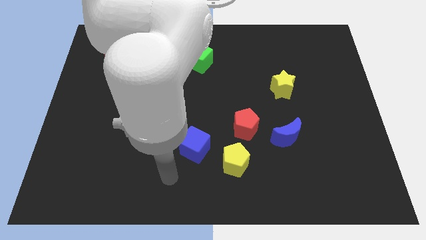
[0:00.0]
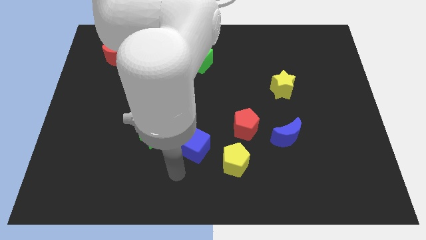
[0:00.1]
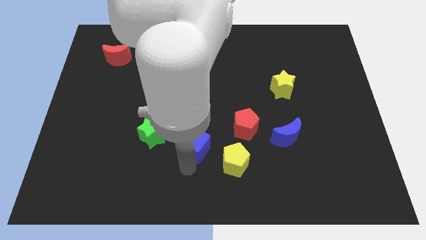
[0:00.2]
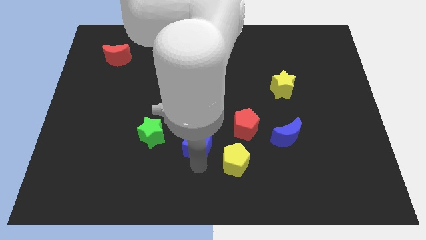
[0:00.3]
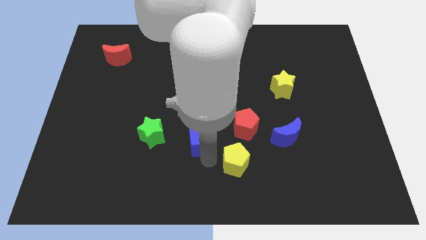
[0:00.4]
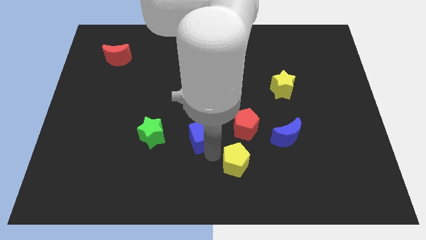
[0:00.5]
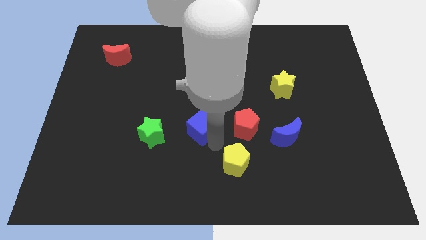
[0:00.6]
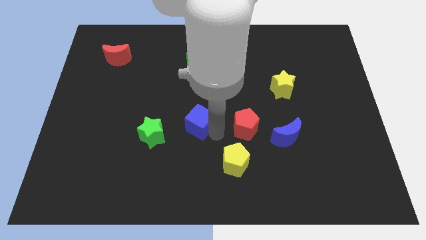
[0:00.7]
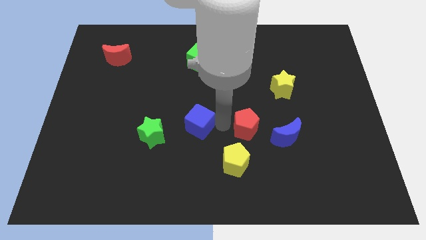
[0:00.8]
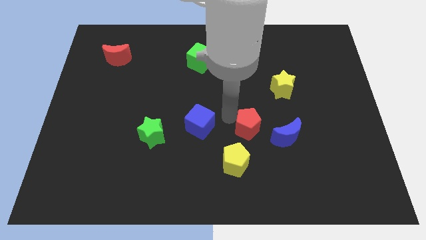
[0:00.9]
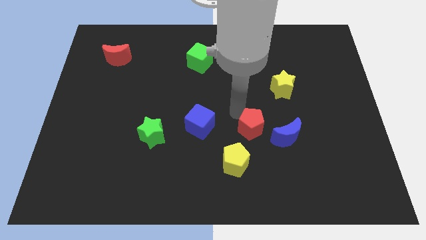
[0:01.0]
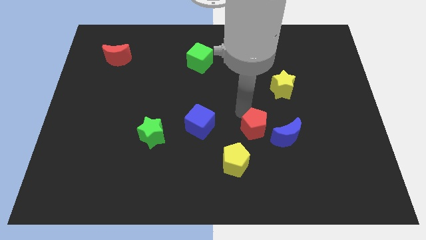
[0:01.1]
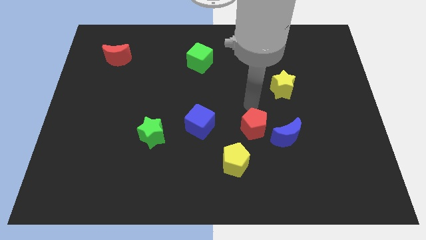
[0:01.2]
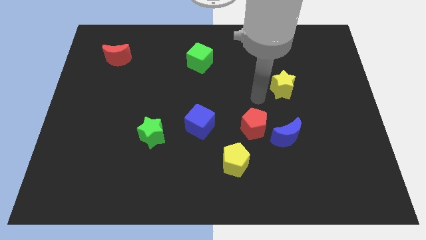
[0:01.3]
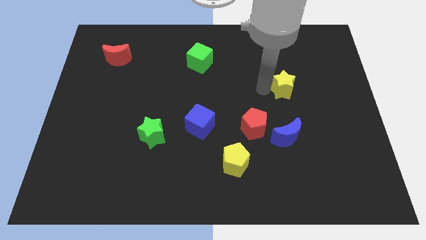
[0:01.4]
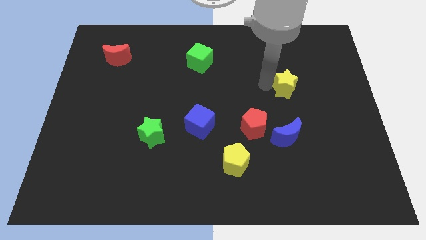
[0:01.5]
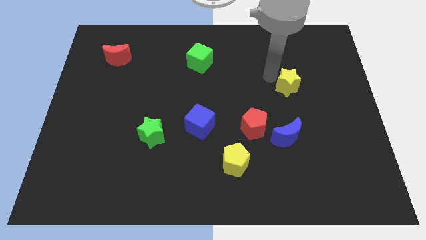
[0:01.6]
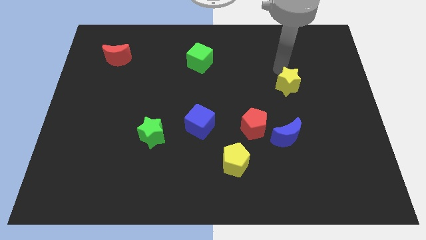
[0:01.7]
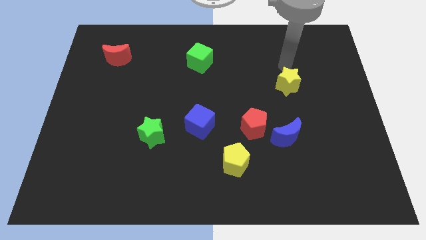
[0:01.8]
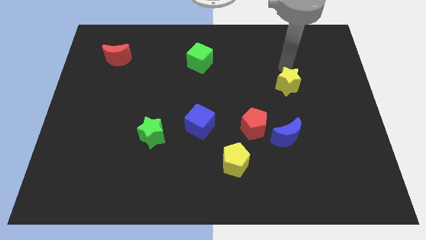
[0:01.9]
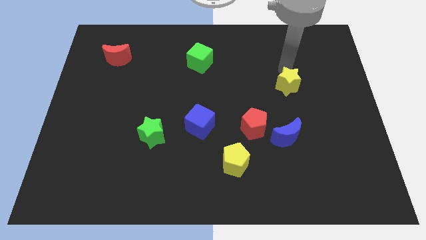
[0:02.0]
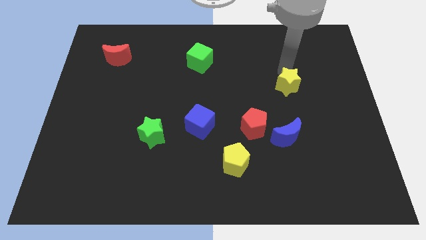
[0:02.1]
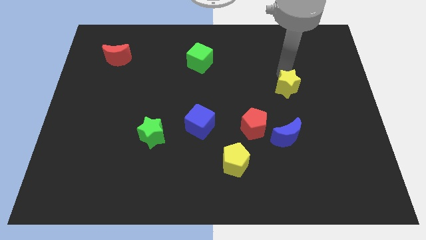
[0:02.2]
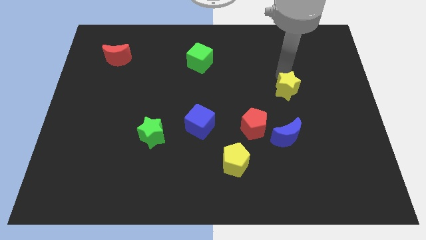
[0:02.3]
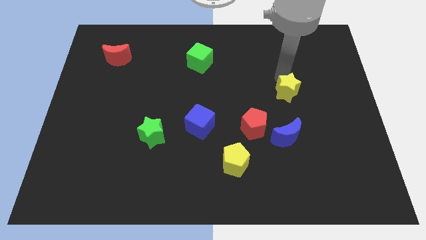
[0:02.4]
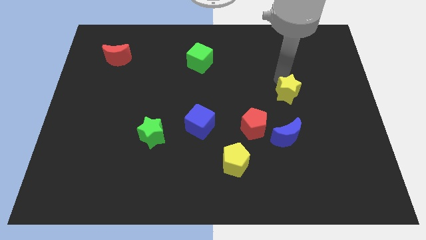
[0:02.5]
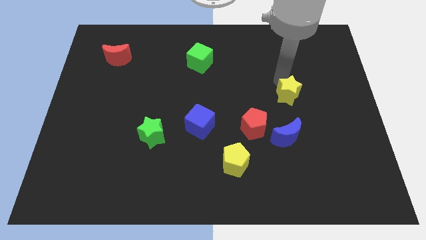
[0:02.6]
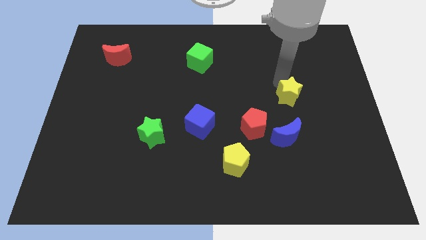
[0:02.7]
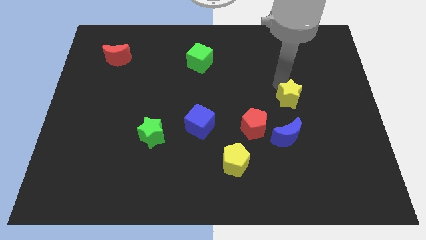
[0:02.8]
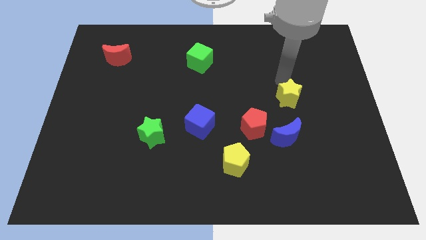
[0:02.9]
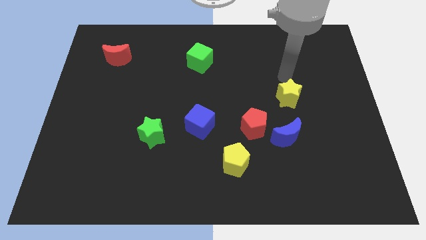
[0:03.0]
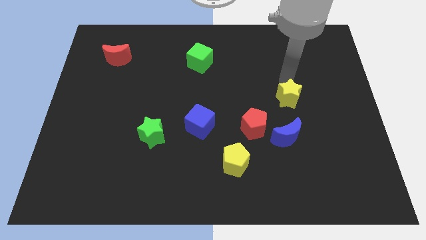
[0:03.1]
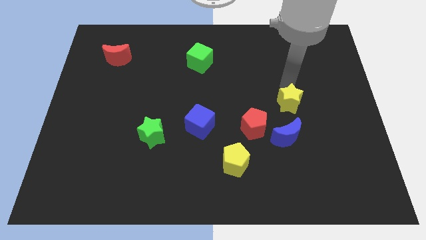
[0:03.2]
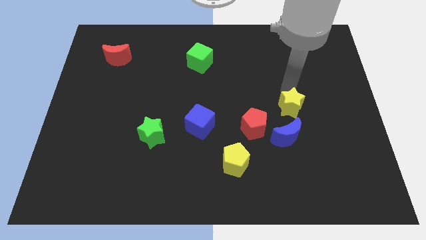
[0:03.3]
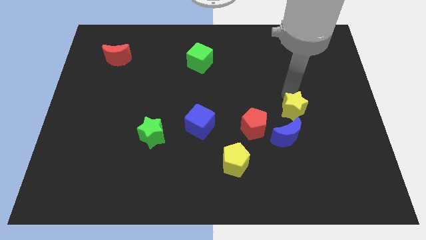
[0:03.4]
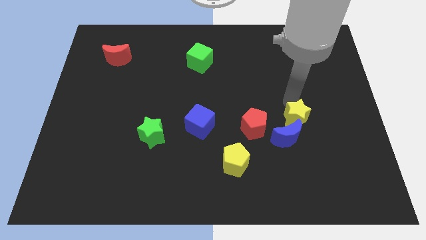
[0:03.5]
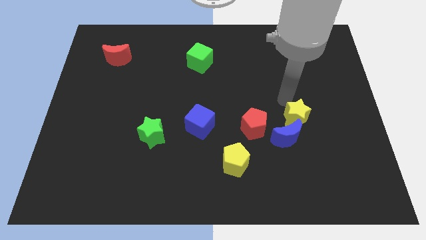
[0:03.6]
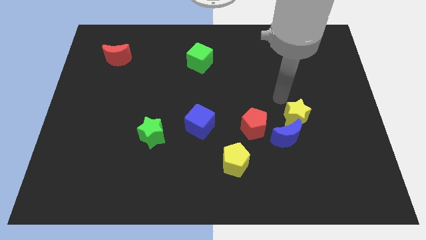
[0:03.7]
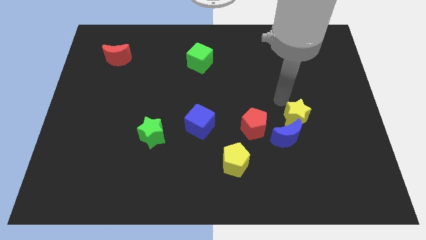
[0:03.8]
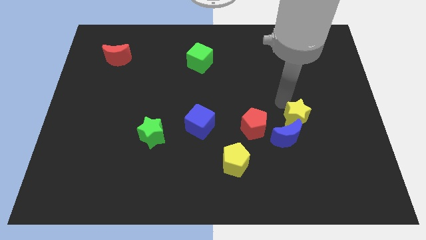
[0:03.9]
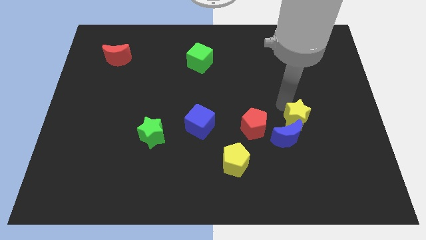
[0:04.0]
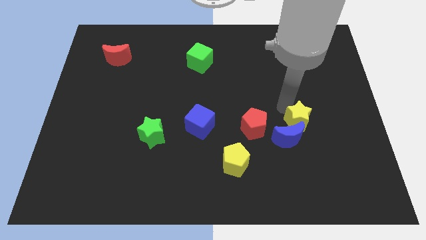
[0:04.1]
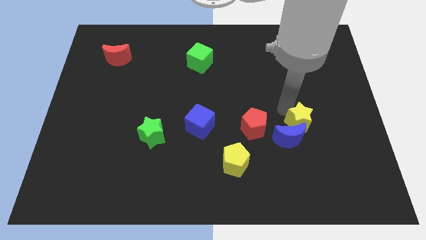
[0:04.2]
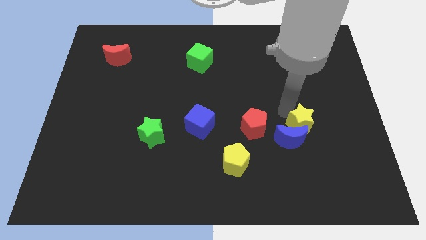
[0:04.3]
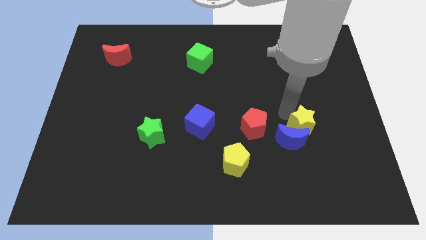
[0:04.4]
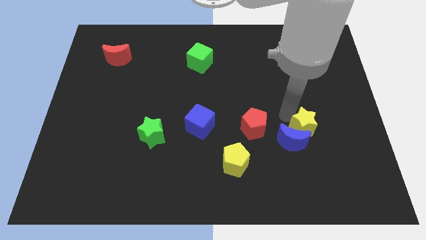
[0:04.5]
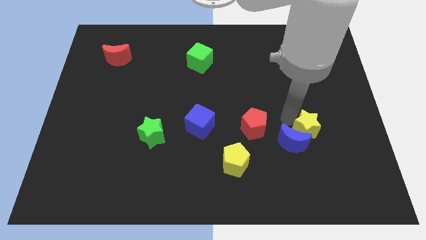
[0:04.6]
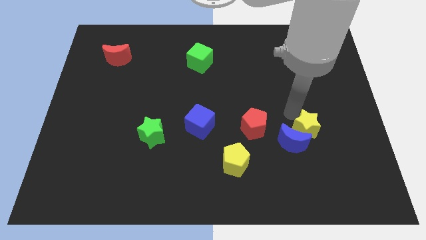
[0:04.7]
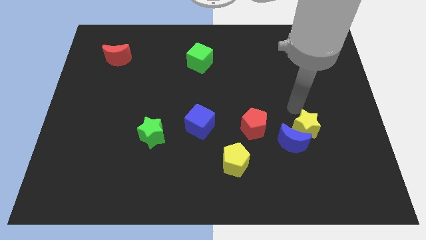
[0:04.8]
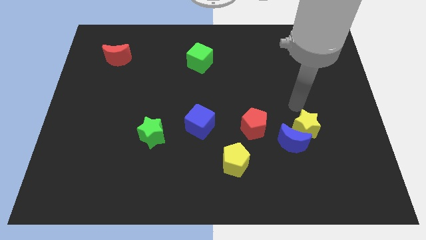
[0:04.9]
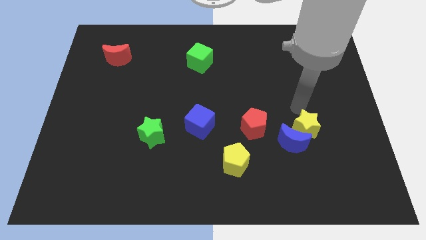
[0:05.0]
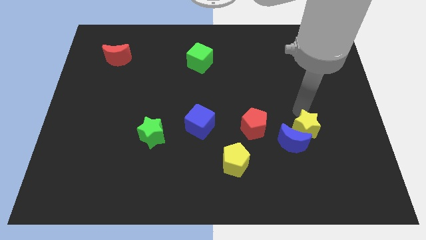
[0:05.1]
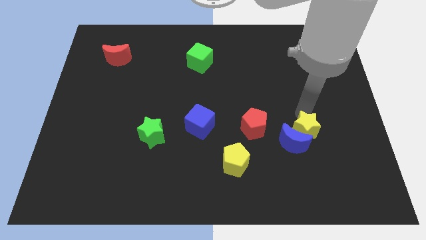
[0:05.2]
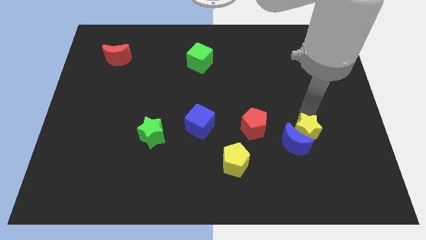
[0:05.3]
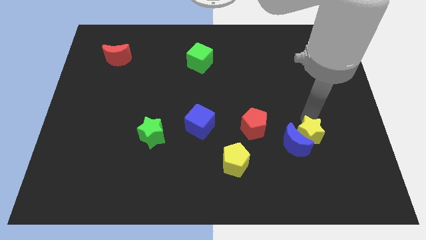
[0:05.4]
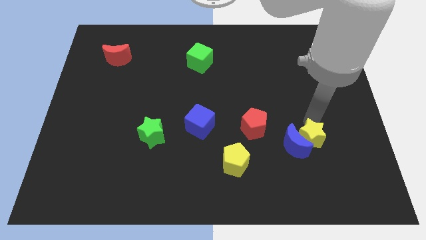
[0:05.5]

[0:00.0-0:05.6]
push the yellow star diagonally down and to the right of the blue moon

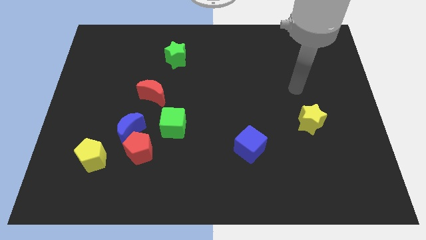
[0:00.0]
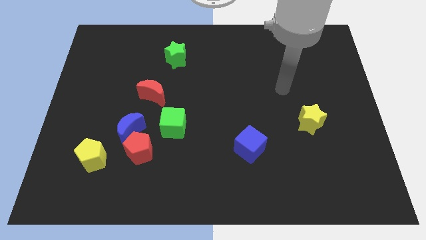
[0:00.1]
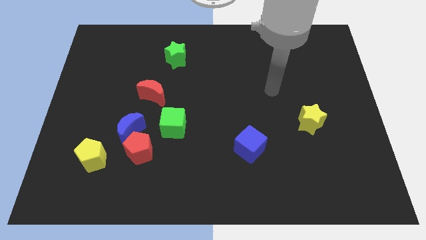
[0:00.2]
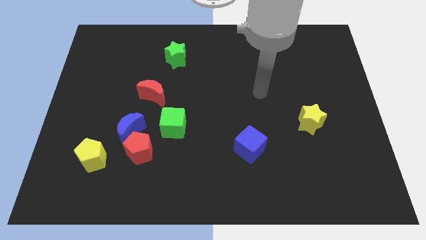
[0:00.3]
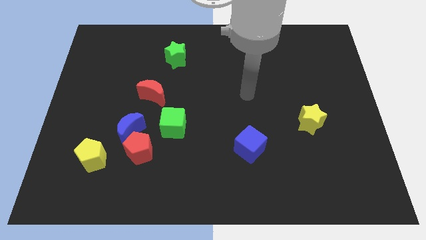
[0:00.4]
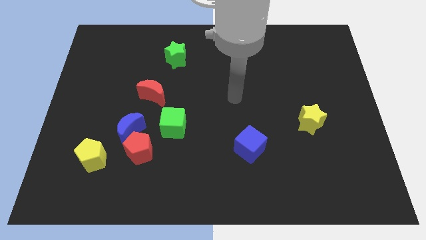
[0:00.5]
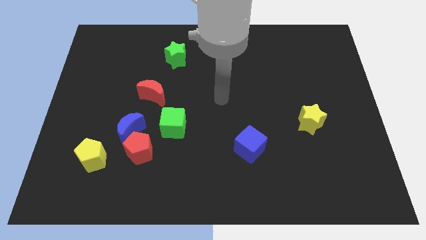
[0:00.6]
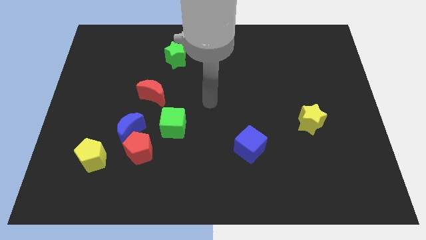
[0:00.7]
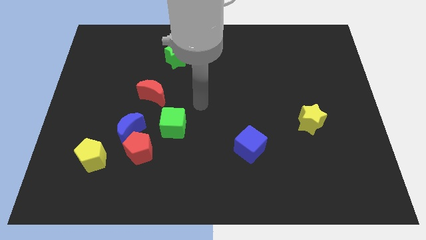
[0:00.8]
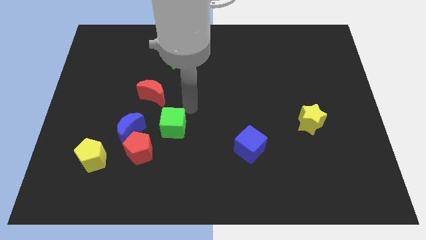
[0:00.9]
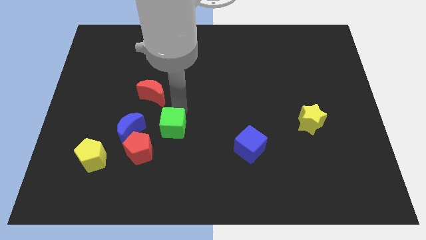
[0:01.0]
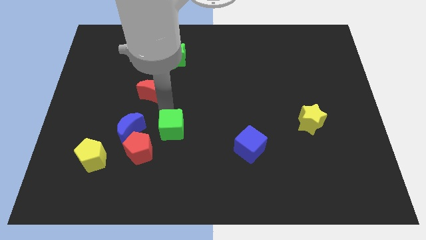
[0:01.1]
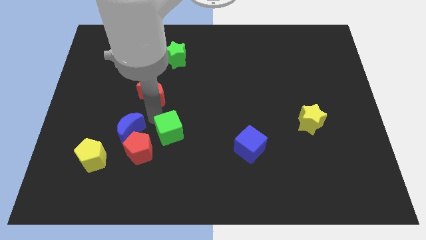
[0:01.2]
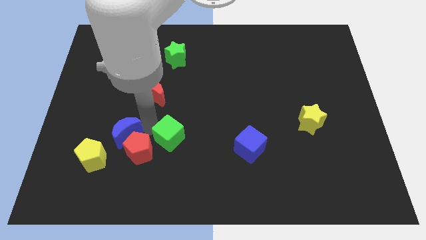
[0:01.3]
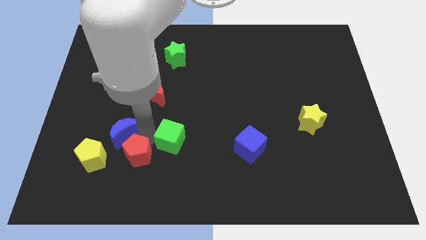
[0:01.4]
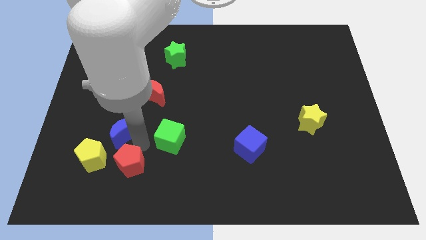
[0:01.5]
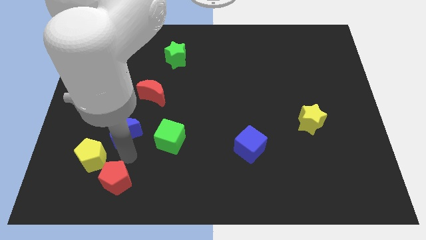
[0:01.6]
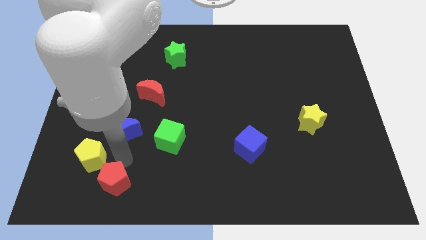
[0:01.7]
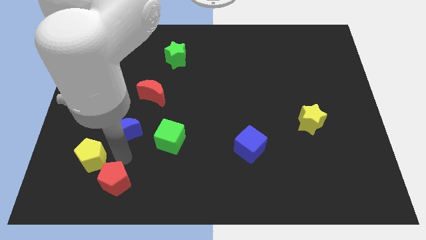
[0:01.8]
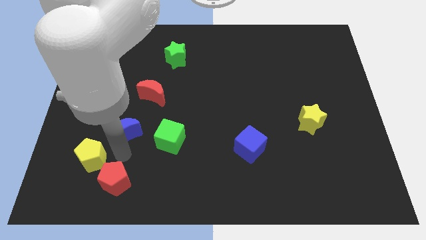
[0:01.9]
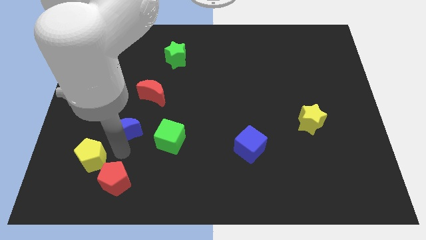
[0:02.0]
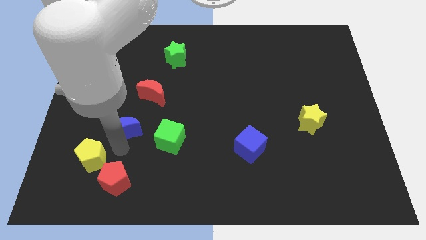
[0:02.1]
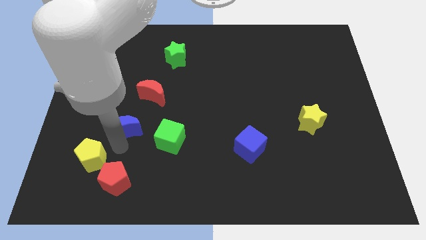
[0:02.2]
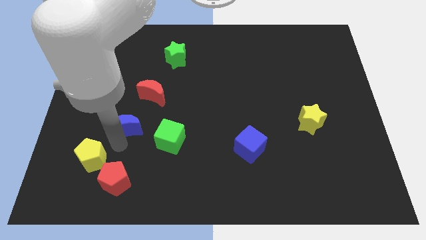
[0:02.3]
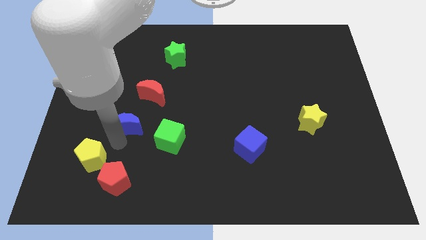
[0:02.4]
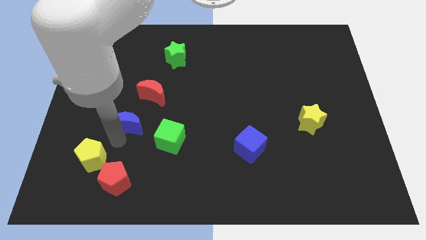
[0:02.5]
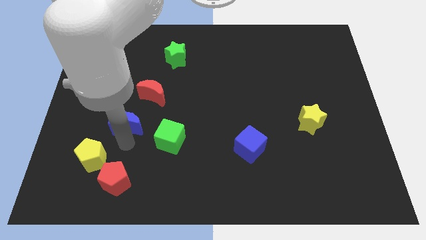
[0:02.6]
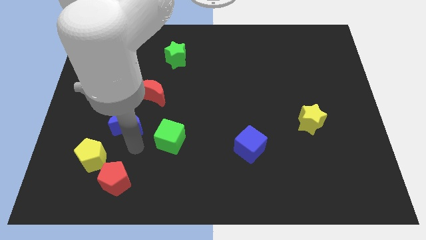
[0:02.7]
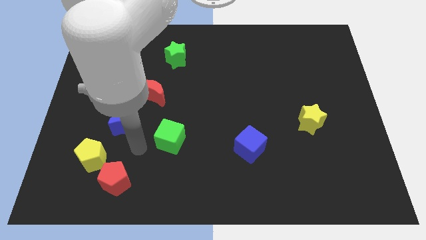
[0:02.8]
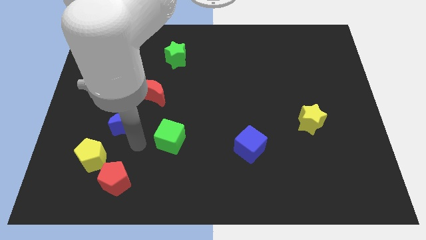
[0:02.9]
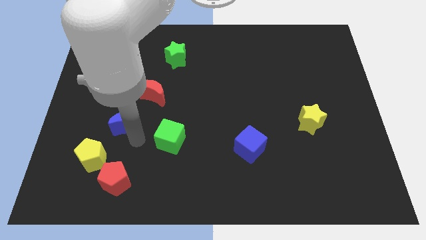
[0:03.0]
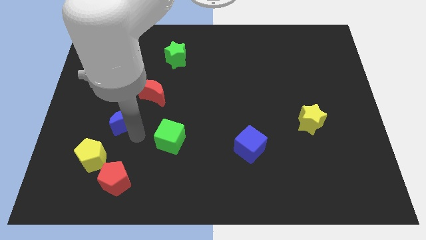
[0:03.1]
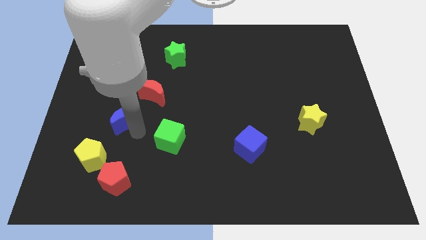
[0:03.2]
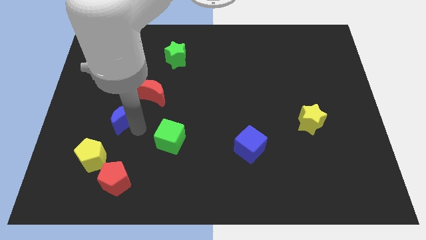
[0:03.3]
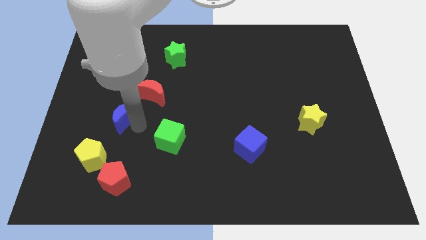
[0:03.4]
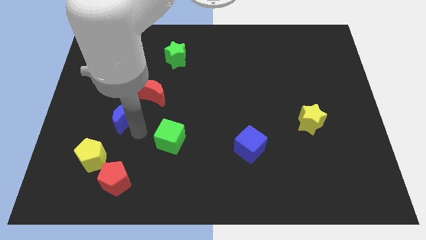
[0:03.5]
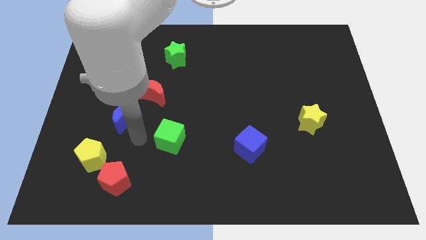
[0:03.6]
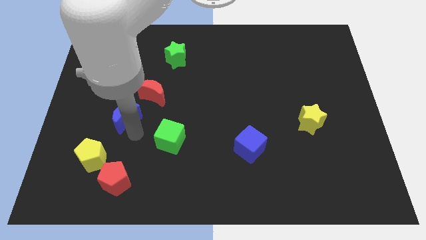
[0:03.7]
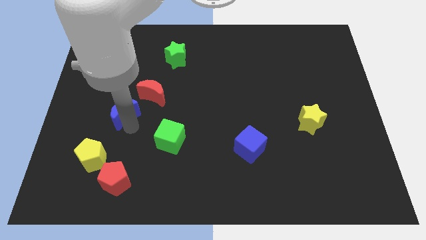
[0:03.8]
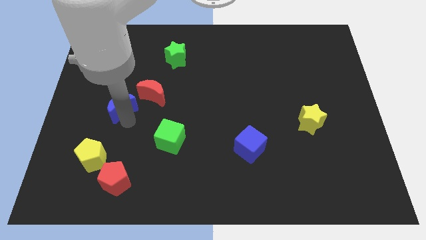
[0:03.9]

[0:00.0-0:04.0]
put the blue moon to the left of the red moon
